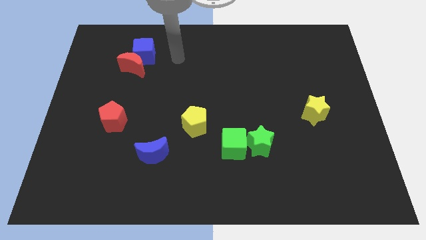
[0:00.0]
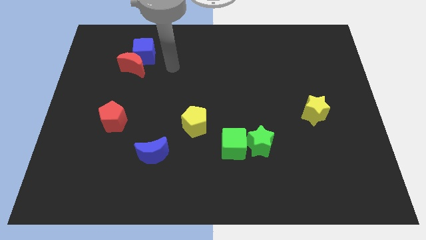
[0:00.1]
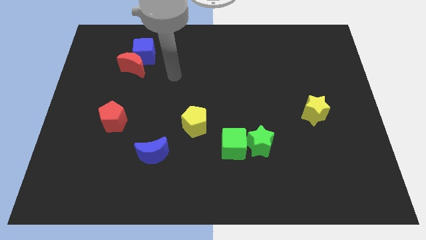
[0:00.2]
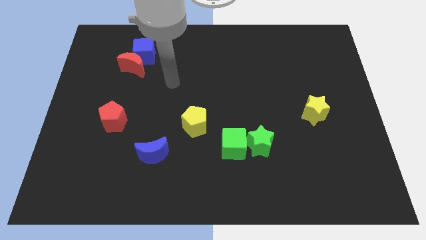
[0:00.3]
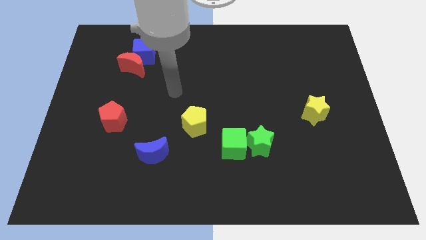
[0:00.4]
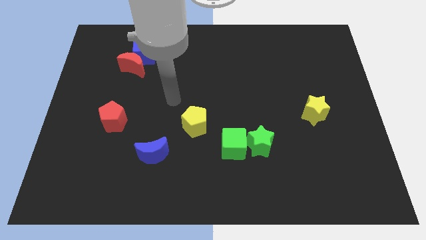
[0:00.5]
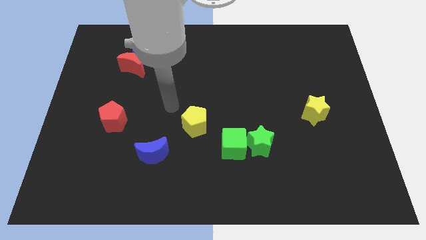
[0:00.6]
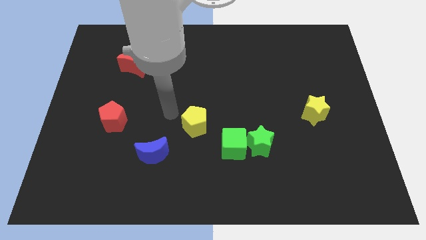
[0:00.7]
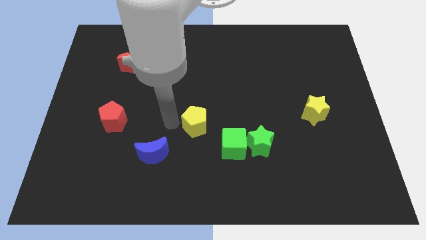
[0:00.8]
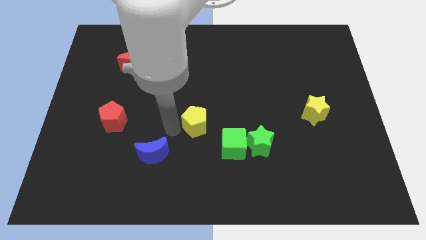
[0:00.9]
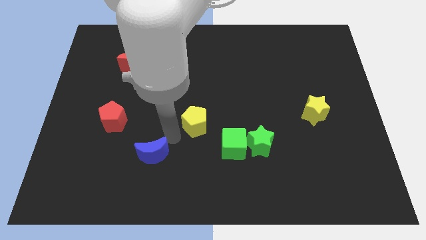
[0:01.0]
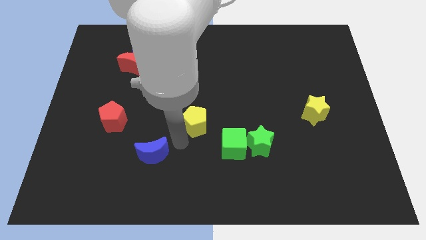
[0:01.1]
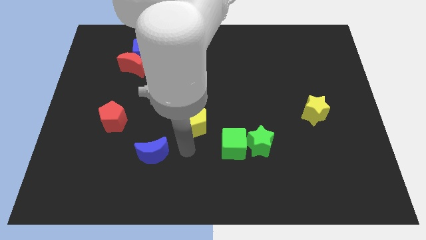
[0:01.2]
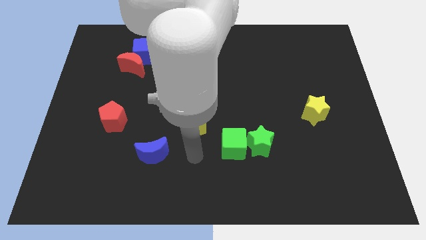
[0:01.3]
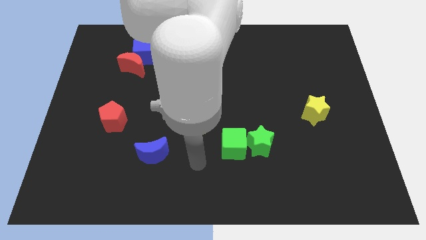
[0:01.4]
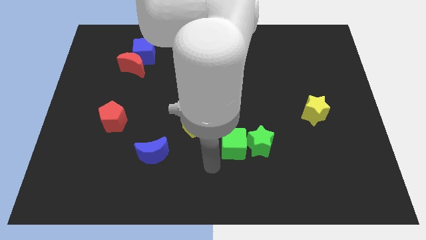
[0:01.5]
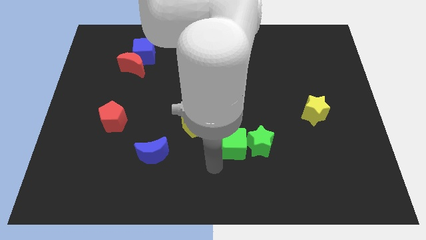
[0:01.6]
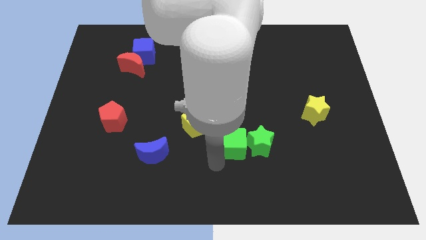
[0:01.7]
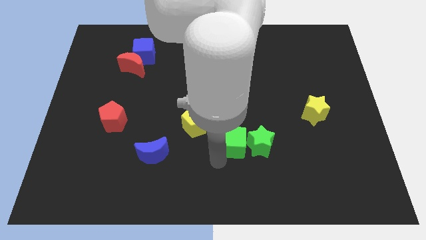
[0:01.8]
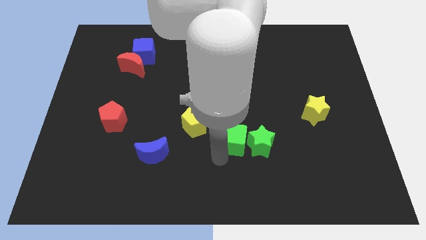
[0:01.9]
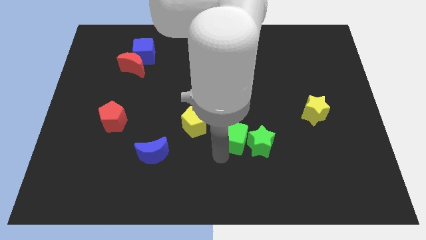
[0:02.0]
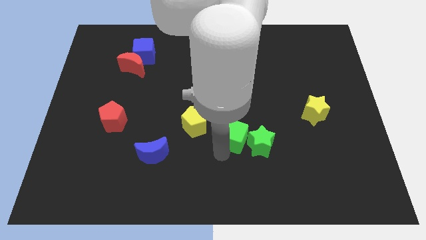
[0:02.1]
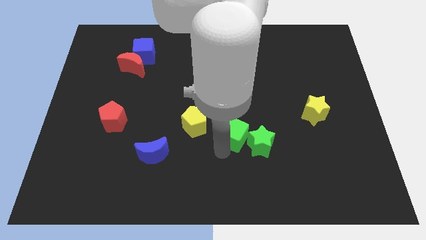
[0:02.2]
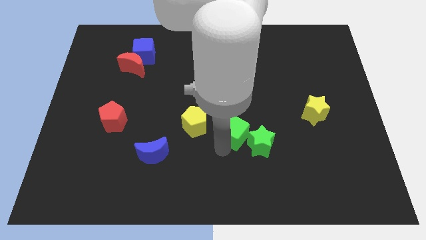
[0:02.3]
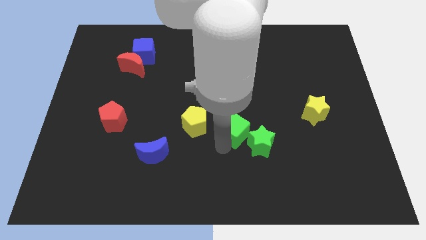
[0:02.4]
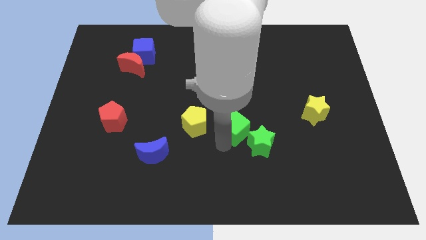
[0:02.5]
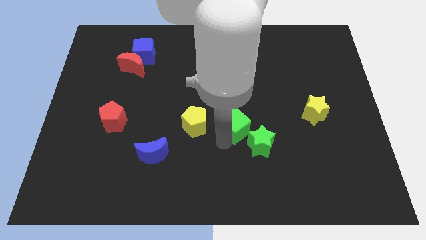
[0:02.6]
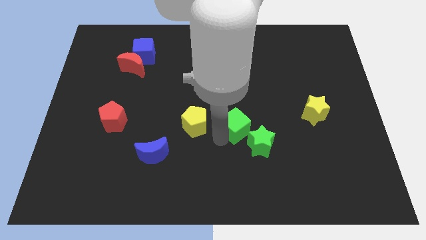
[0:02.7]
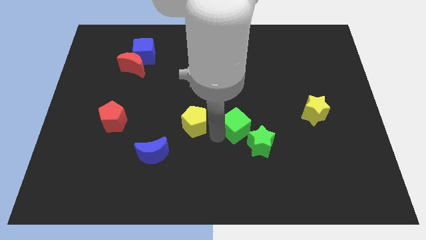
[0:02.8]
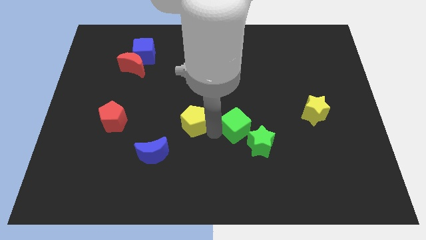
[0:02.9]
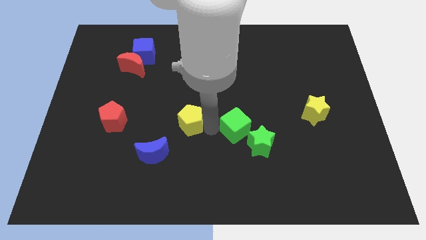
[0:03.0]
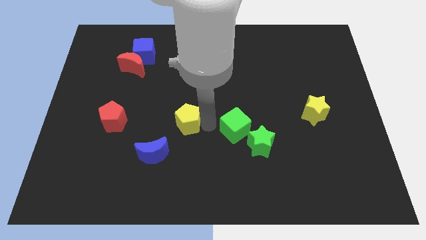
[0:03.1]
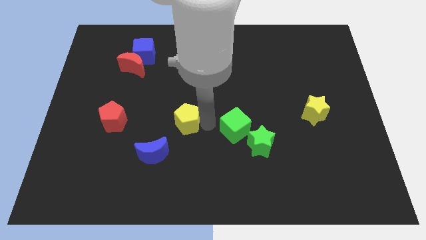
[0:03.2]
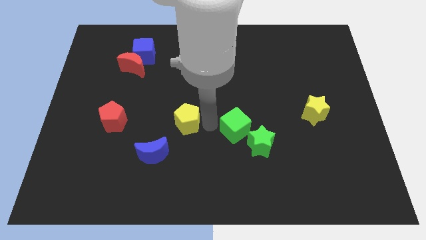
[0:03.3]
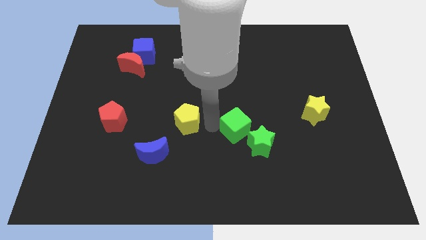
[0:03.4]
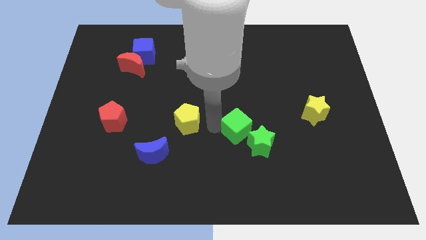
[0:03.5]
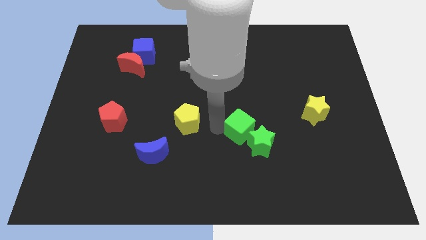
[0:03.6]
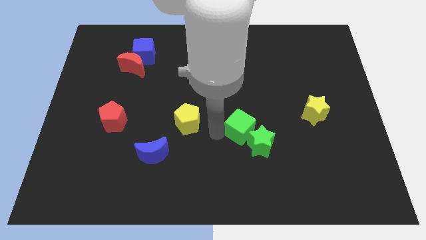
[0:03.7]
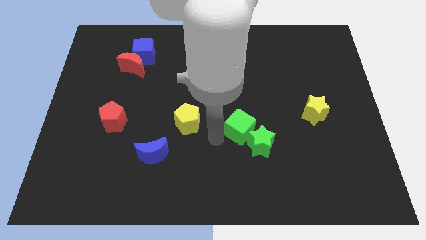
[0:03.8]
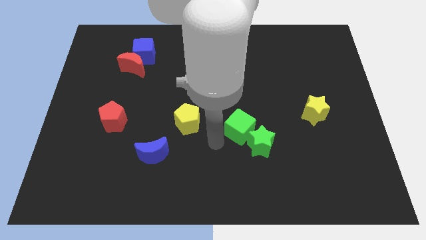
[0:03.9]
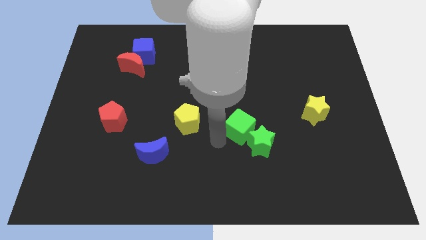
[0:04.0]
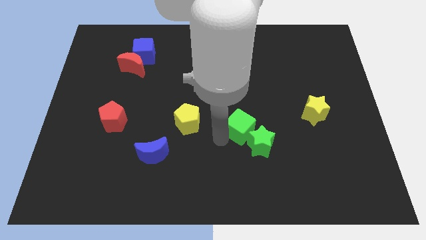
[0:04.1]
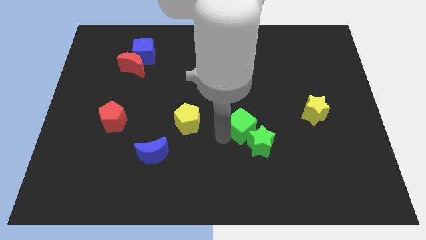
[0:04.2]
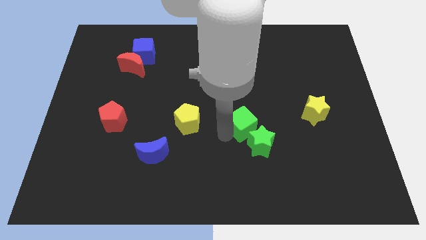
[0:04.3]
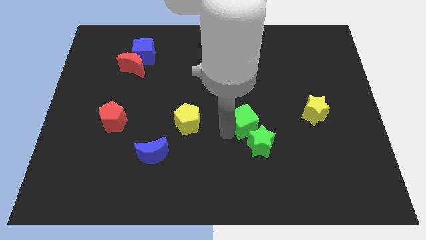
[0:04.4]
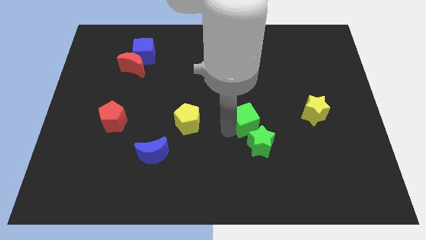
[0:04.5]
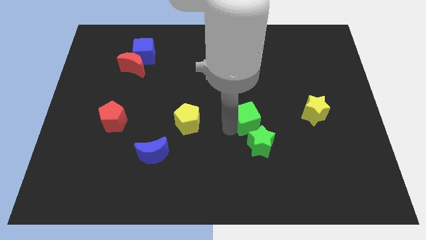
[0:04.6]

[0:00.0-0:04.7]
push the green cube upwards and to the right diagonally somewhat

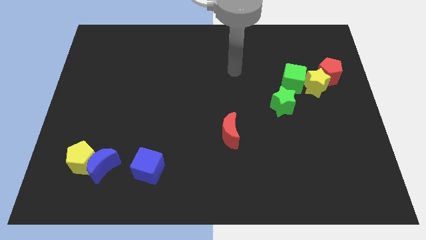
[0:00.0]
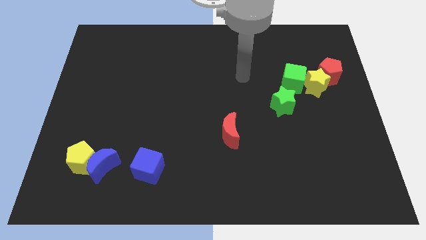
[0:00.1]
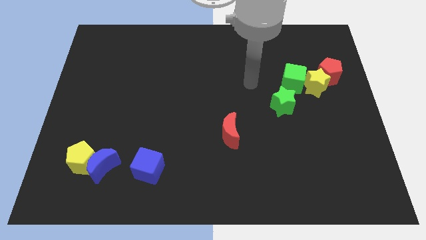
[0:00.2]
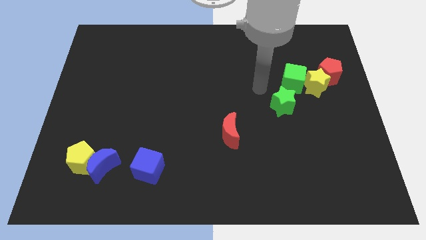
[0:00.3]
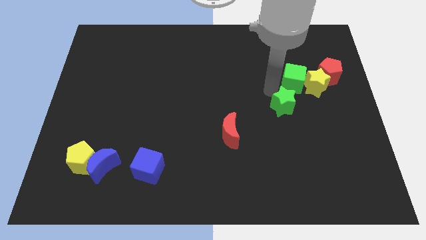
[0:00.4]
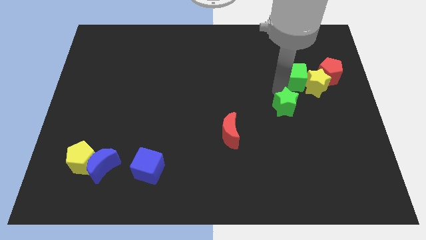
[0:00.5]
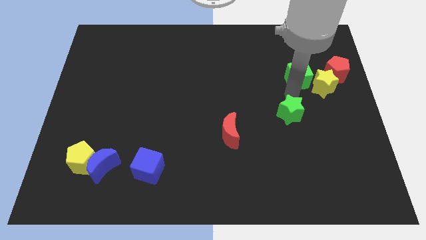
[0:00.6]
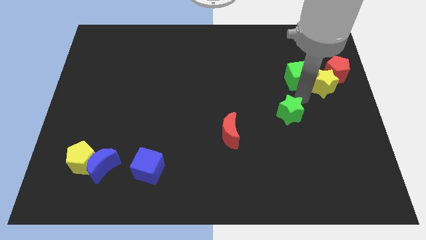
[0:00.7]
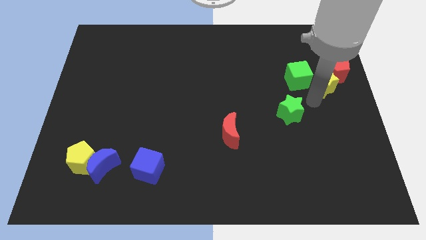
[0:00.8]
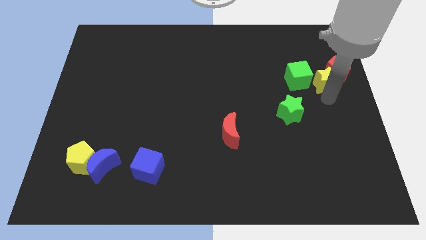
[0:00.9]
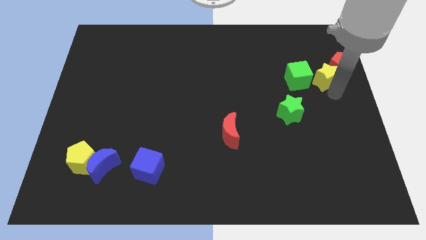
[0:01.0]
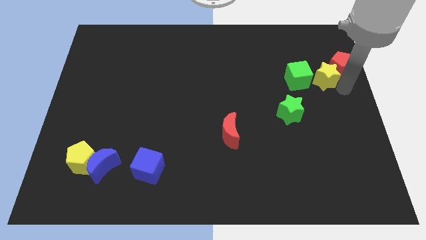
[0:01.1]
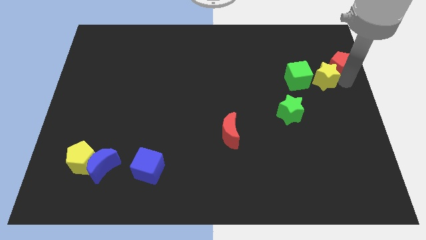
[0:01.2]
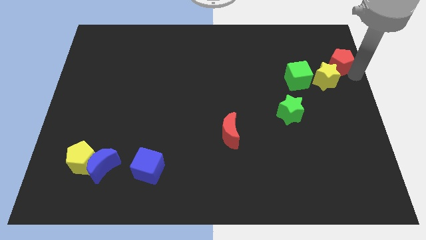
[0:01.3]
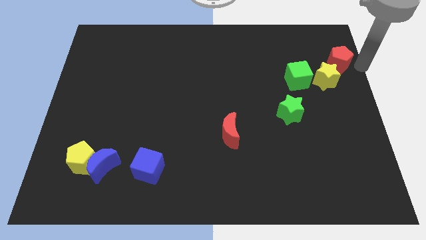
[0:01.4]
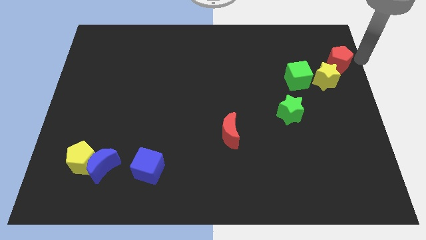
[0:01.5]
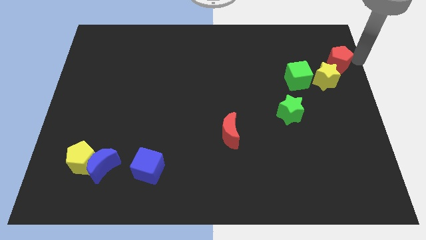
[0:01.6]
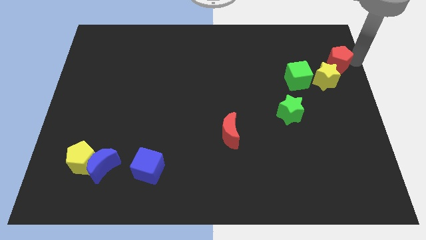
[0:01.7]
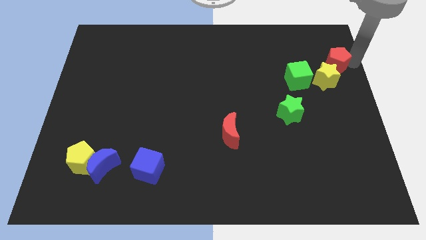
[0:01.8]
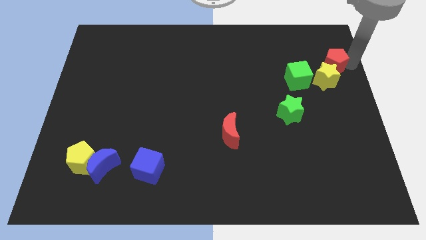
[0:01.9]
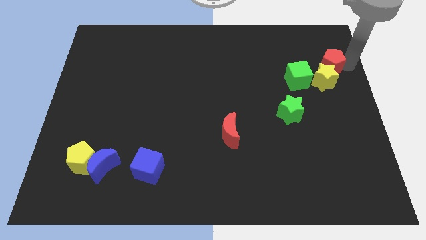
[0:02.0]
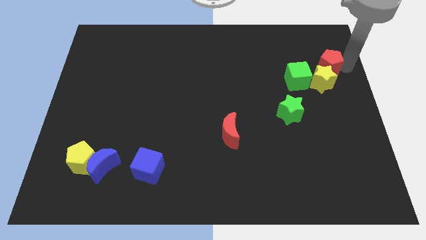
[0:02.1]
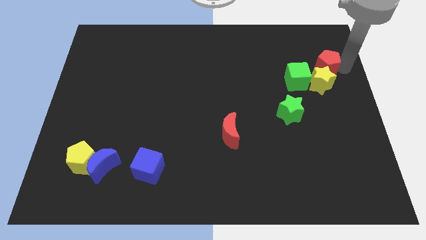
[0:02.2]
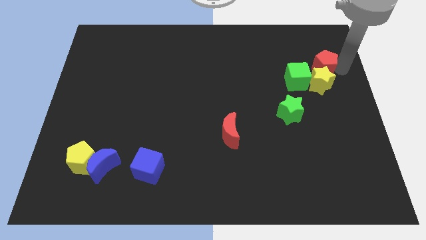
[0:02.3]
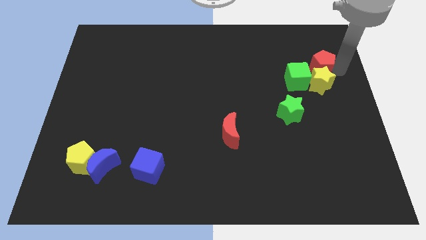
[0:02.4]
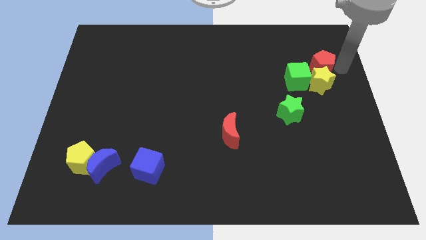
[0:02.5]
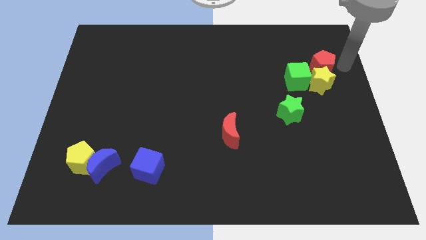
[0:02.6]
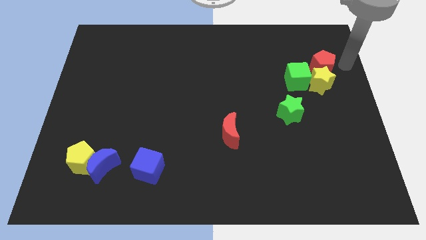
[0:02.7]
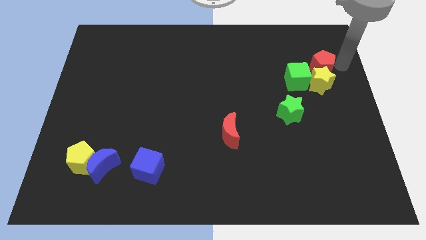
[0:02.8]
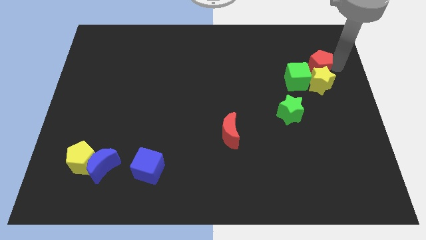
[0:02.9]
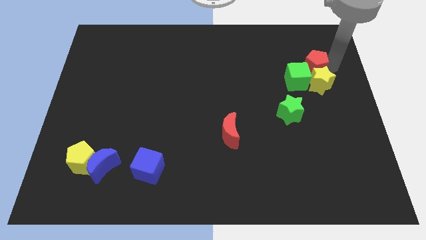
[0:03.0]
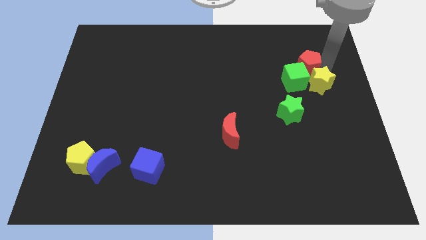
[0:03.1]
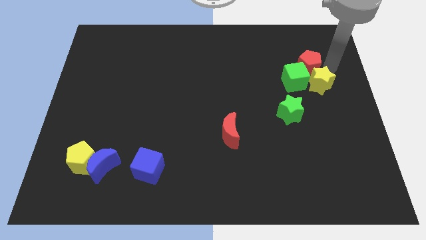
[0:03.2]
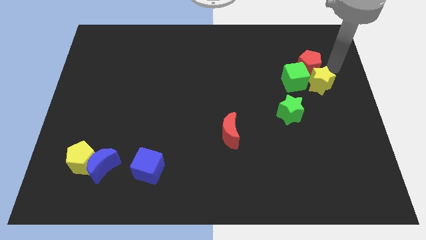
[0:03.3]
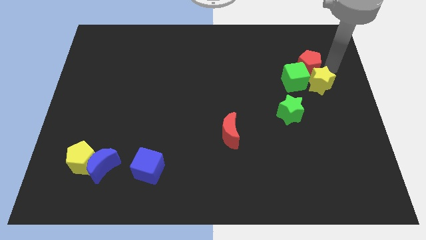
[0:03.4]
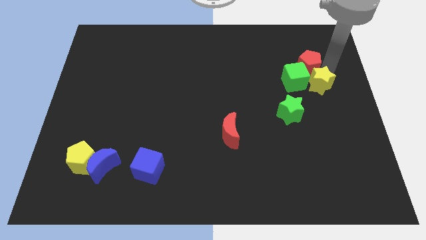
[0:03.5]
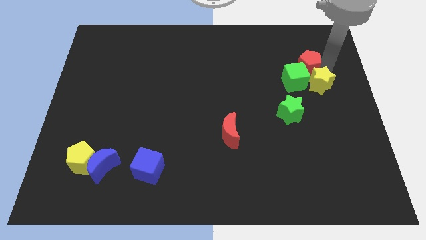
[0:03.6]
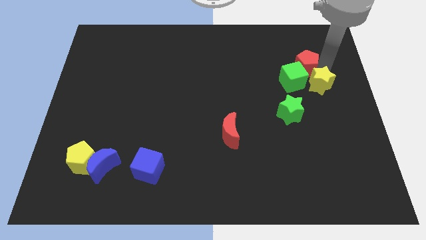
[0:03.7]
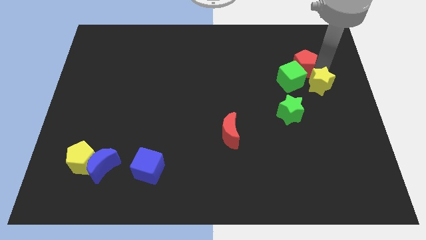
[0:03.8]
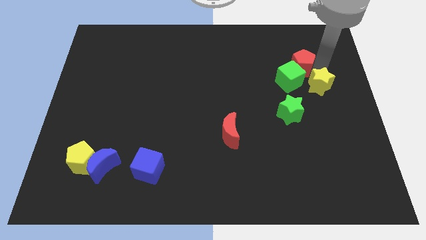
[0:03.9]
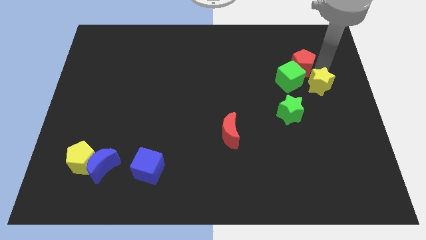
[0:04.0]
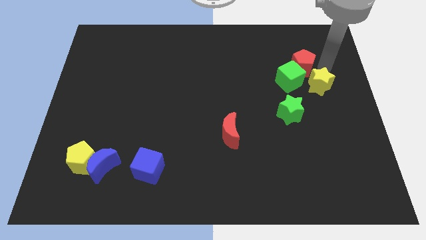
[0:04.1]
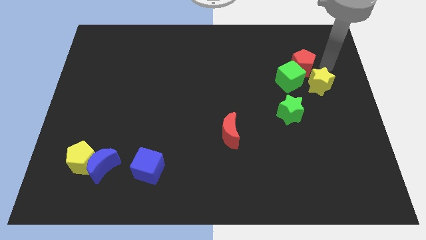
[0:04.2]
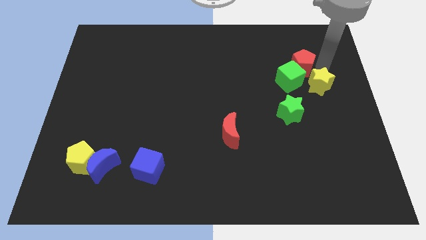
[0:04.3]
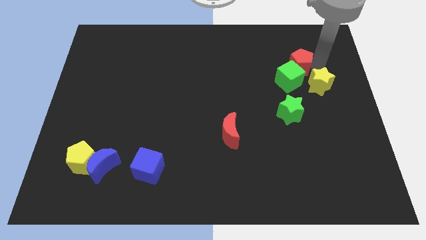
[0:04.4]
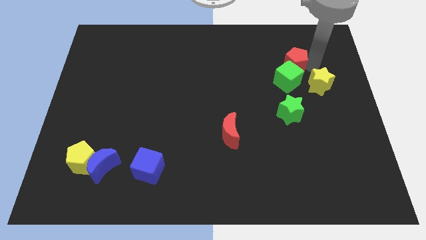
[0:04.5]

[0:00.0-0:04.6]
move the red pentagon somewhat to the left
